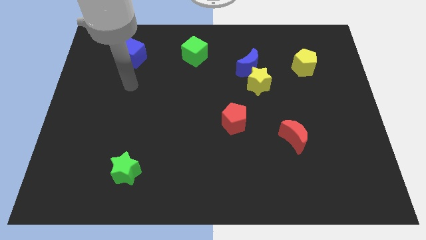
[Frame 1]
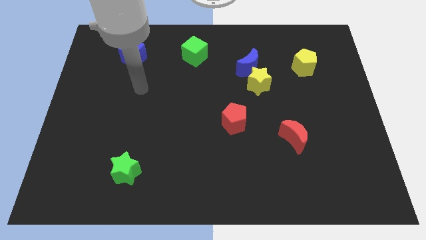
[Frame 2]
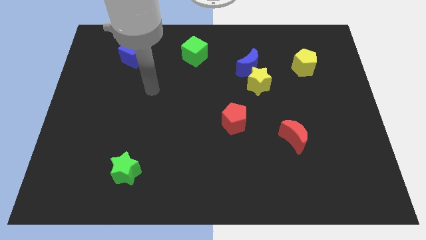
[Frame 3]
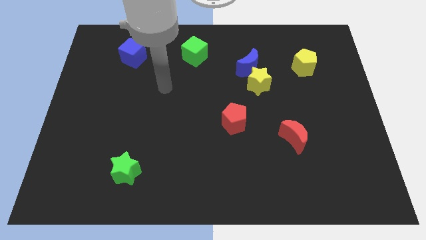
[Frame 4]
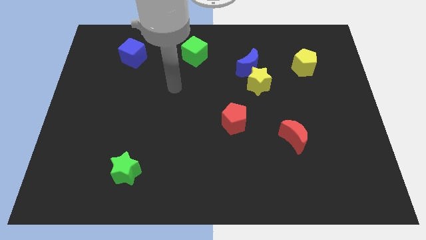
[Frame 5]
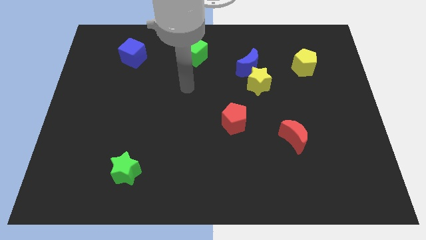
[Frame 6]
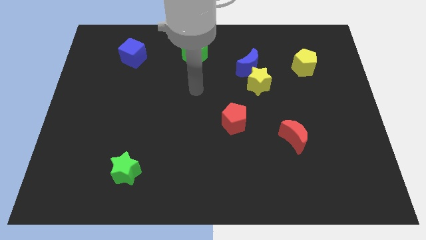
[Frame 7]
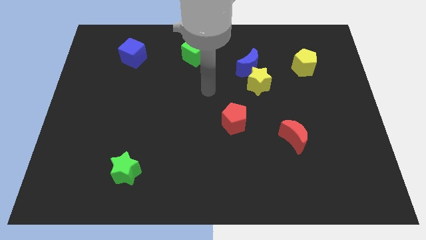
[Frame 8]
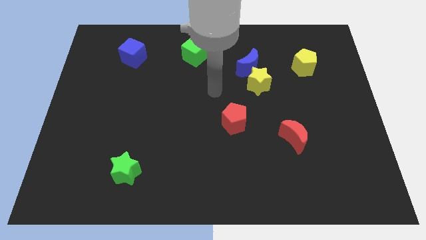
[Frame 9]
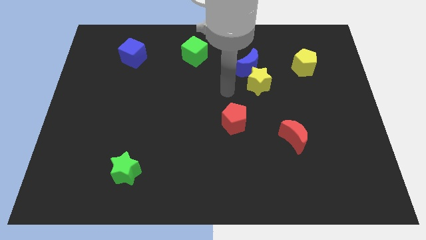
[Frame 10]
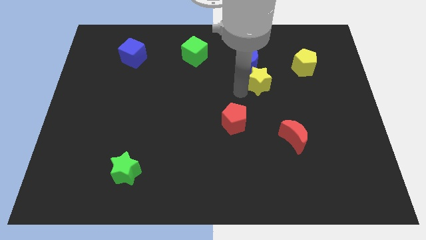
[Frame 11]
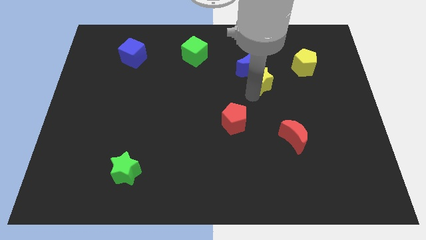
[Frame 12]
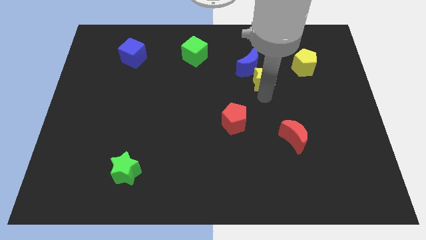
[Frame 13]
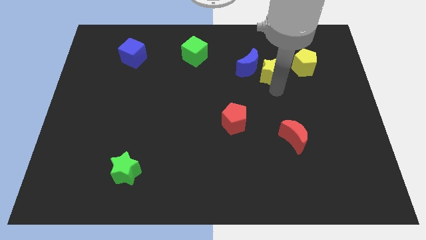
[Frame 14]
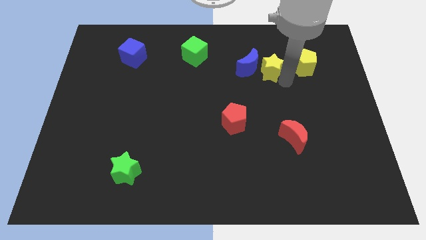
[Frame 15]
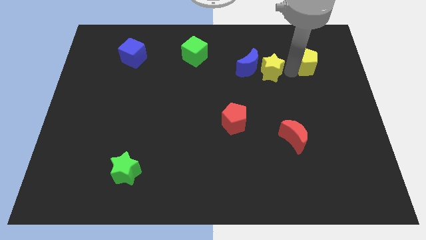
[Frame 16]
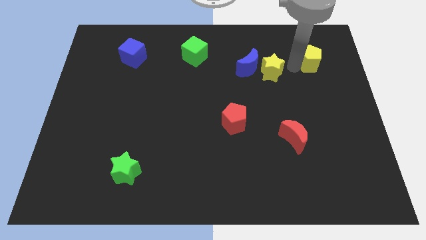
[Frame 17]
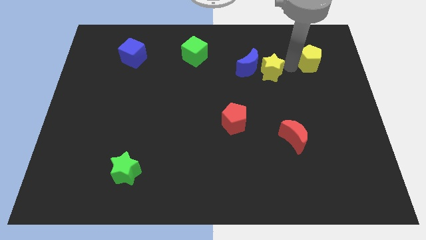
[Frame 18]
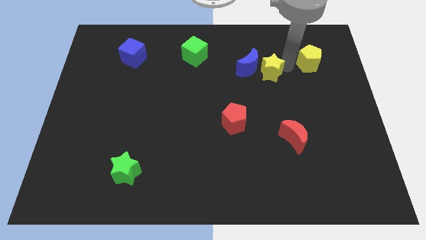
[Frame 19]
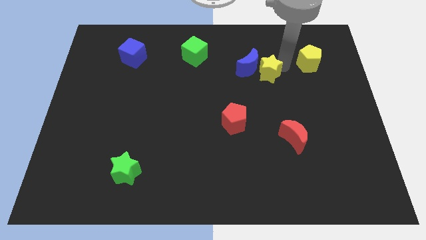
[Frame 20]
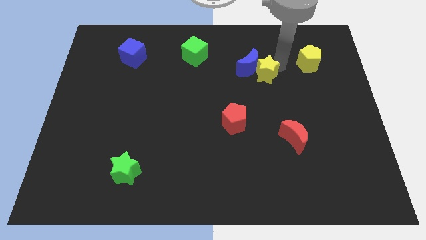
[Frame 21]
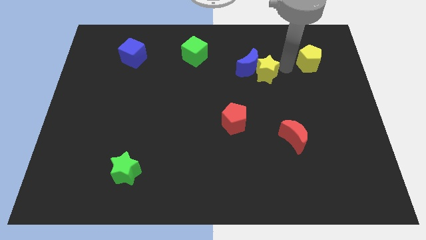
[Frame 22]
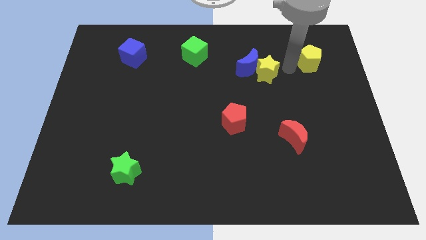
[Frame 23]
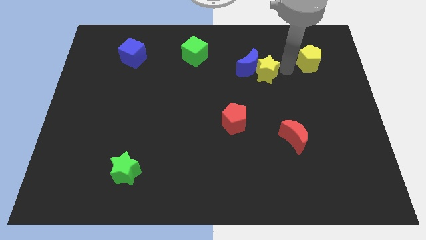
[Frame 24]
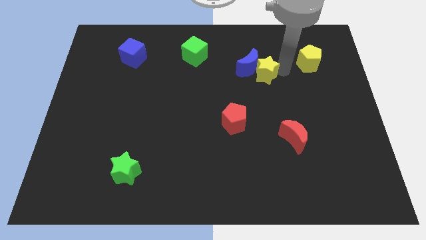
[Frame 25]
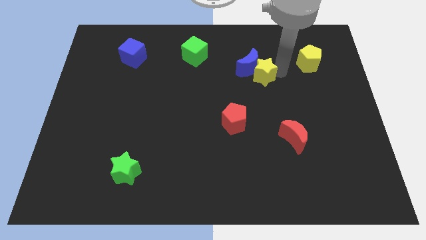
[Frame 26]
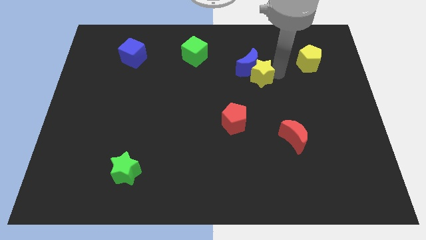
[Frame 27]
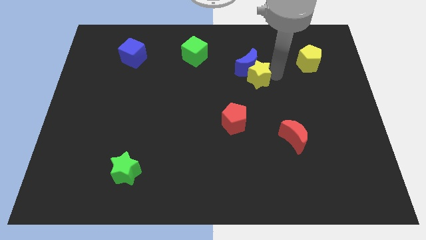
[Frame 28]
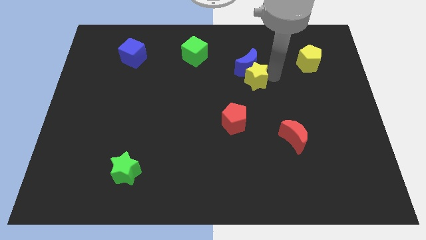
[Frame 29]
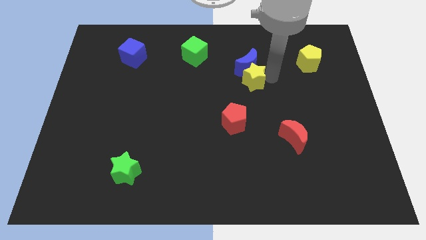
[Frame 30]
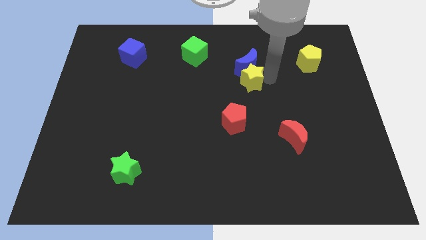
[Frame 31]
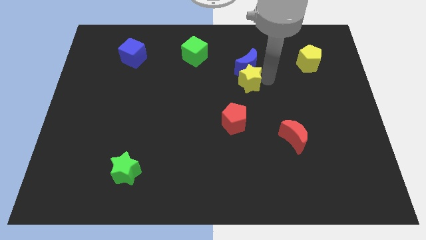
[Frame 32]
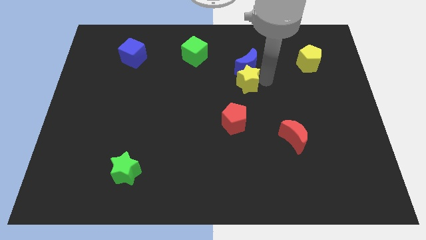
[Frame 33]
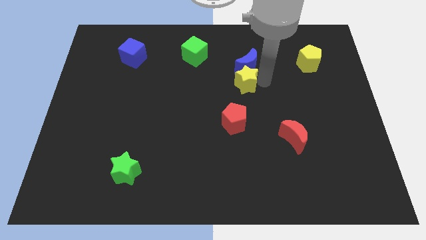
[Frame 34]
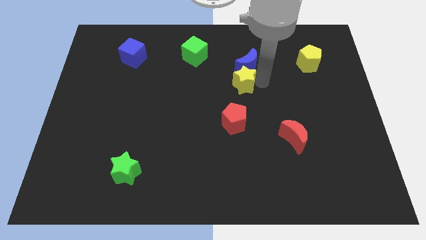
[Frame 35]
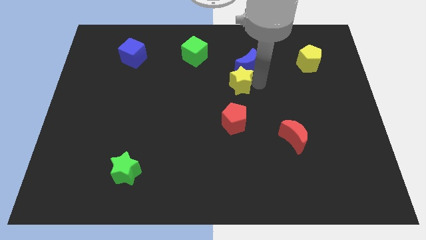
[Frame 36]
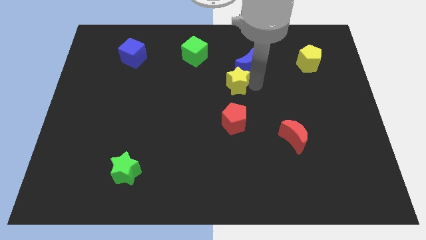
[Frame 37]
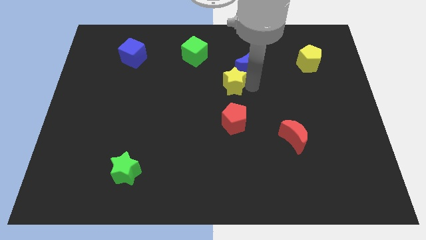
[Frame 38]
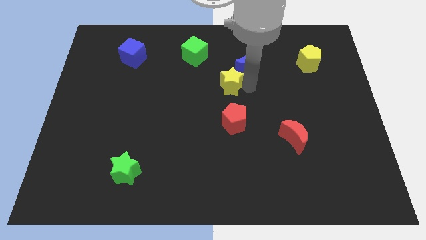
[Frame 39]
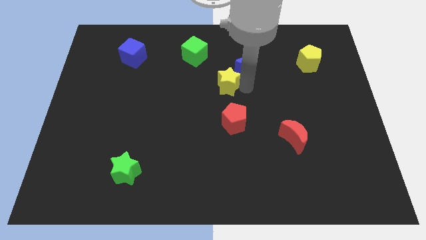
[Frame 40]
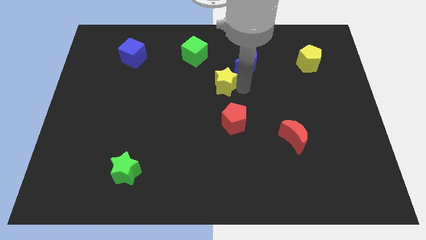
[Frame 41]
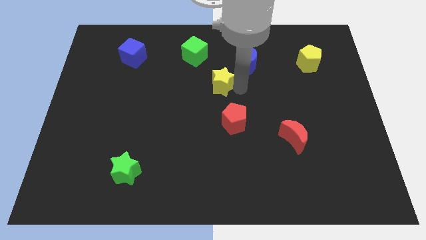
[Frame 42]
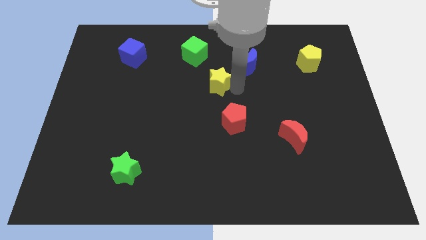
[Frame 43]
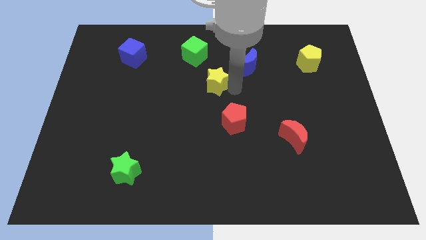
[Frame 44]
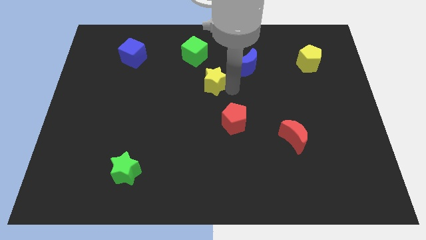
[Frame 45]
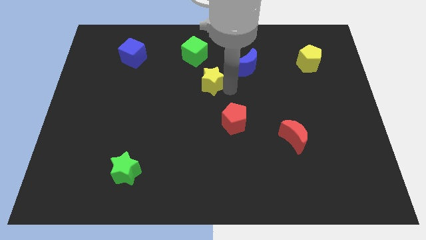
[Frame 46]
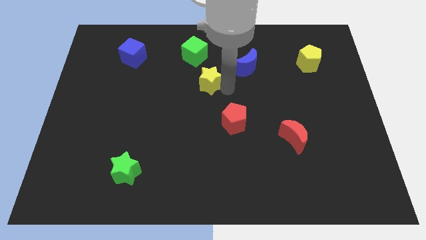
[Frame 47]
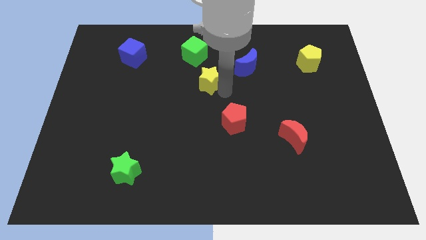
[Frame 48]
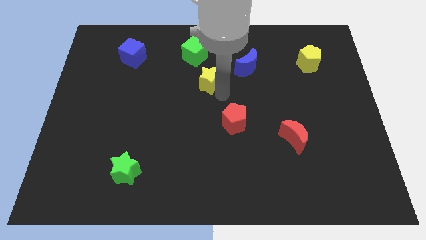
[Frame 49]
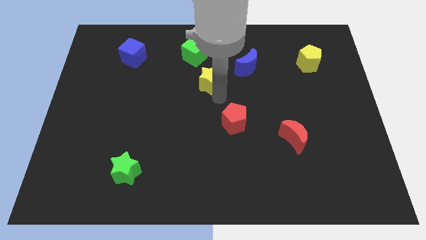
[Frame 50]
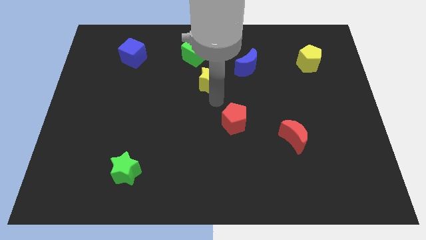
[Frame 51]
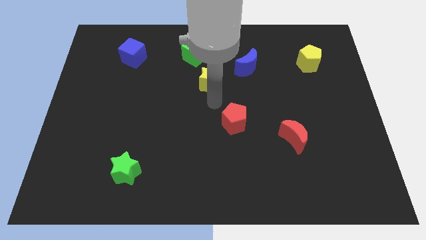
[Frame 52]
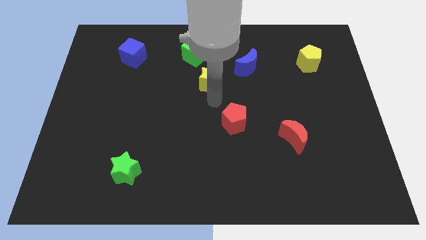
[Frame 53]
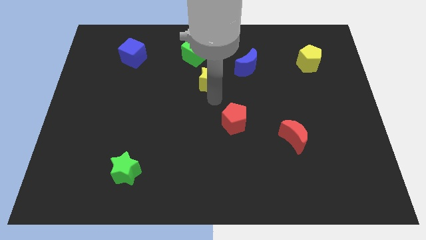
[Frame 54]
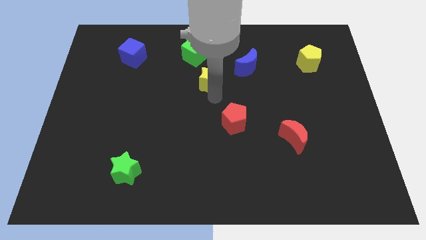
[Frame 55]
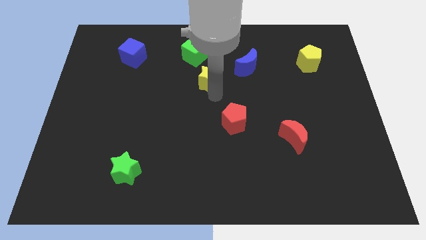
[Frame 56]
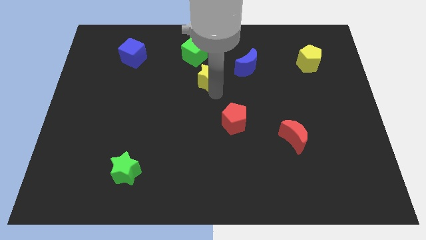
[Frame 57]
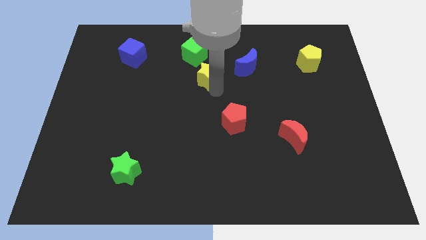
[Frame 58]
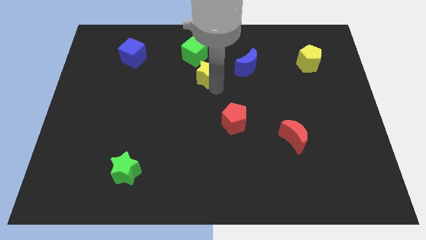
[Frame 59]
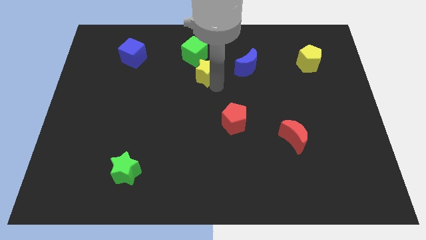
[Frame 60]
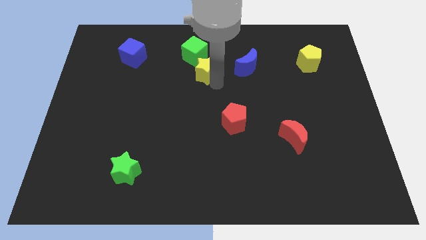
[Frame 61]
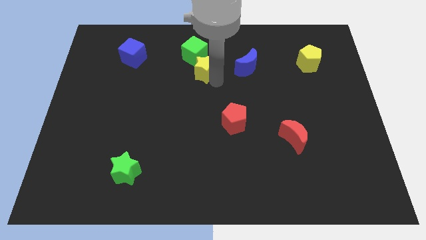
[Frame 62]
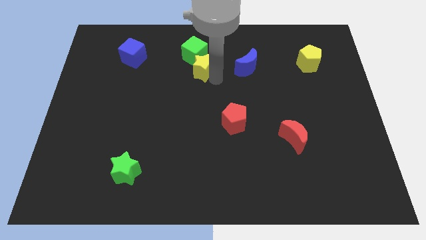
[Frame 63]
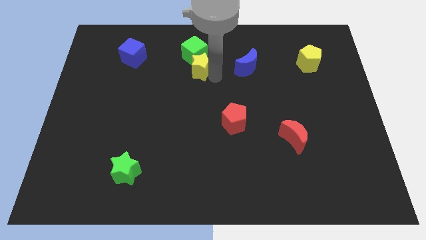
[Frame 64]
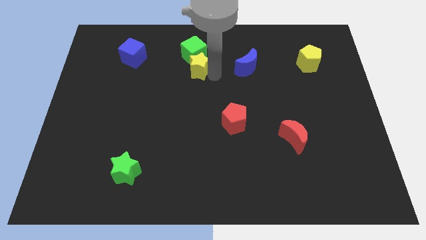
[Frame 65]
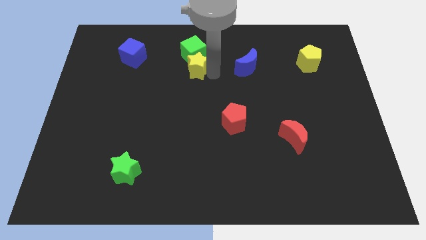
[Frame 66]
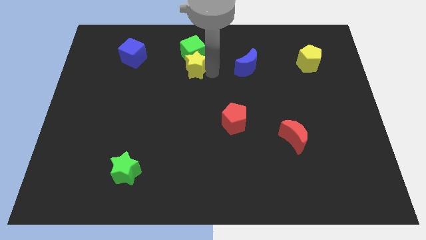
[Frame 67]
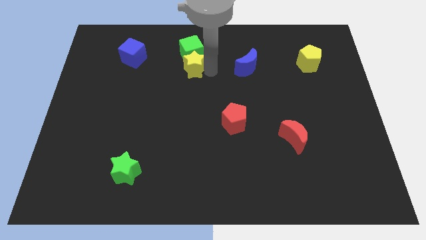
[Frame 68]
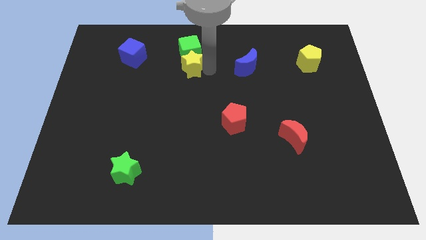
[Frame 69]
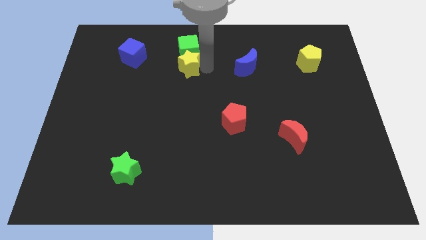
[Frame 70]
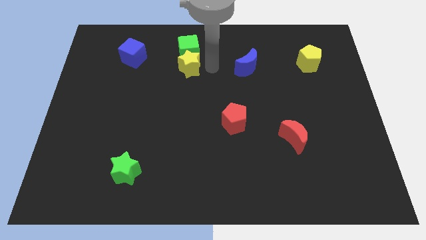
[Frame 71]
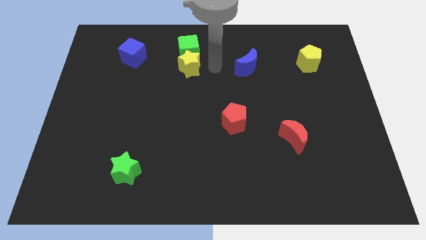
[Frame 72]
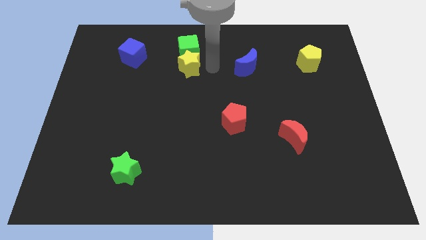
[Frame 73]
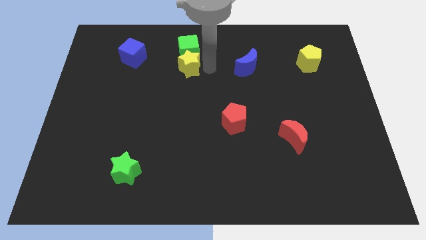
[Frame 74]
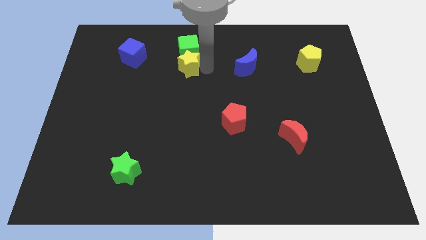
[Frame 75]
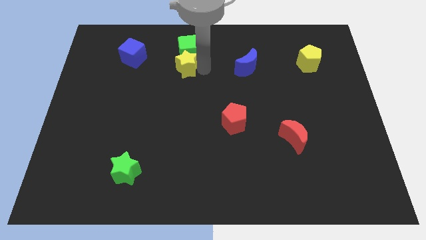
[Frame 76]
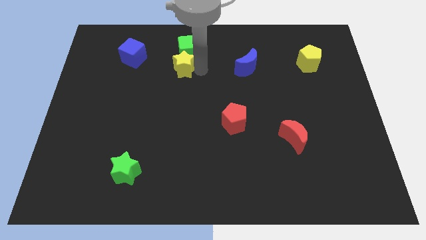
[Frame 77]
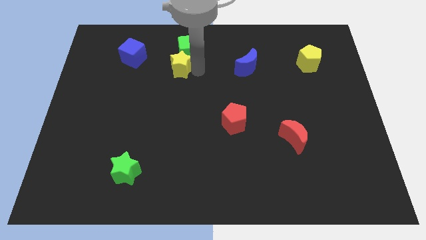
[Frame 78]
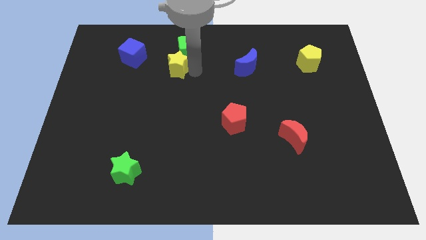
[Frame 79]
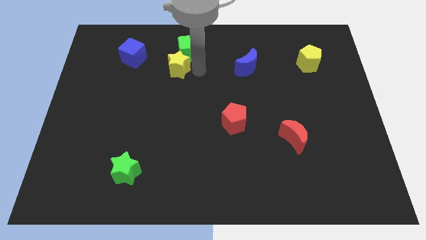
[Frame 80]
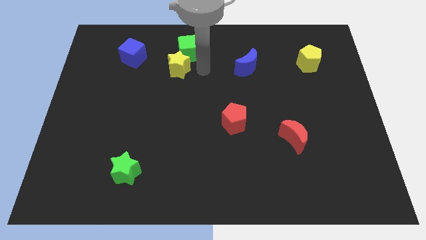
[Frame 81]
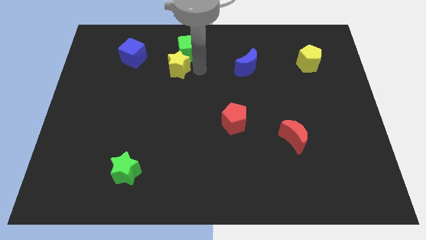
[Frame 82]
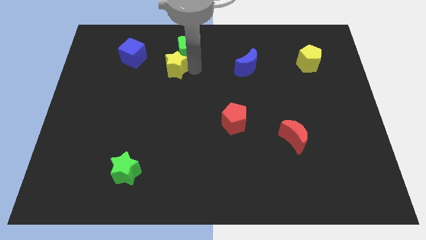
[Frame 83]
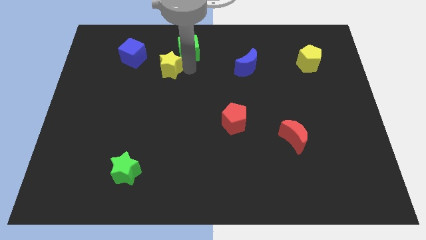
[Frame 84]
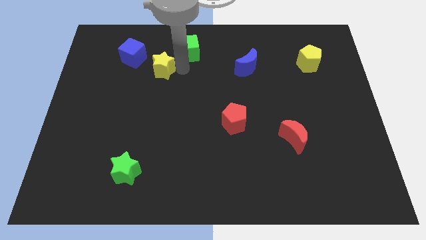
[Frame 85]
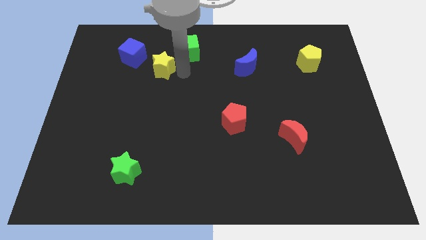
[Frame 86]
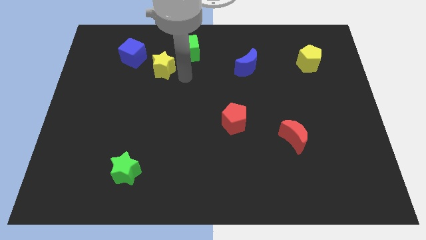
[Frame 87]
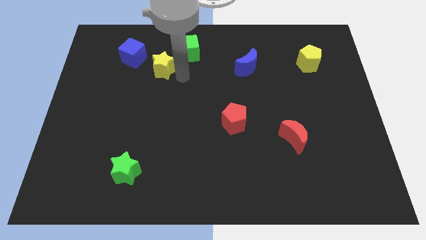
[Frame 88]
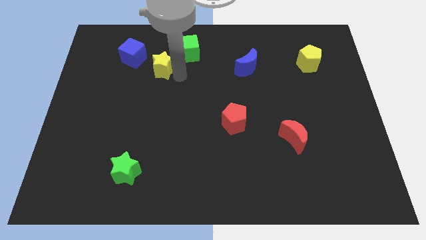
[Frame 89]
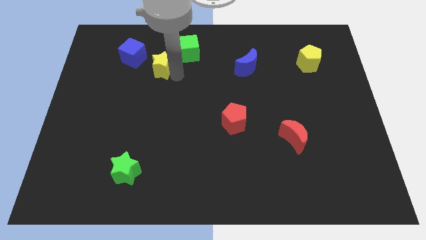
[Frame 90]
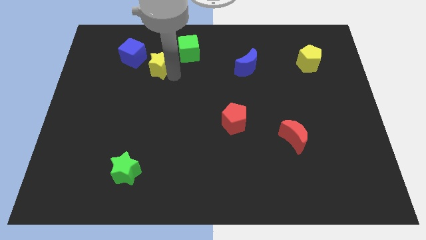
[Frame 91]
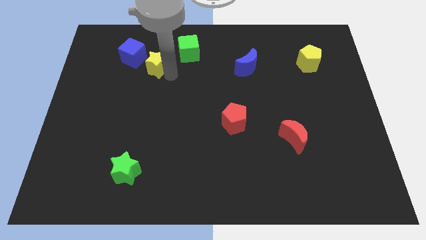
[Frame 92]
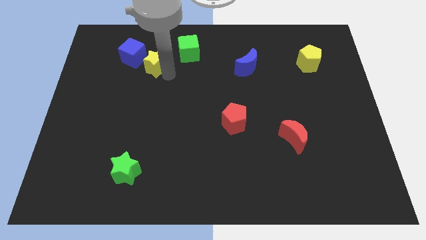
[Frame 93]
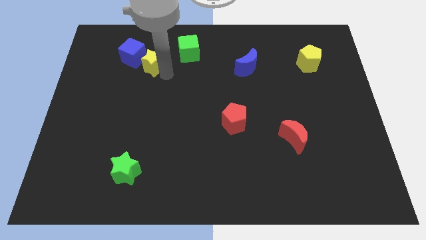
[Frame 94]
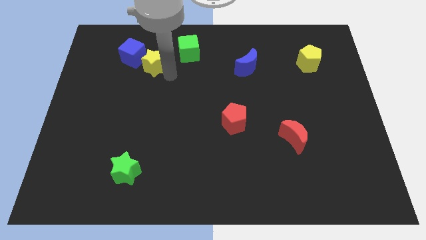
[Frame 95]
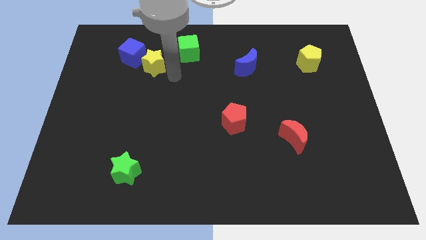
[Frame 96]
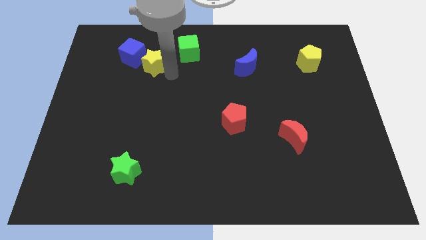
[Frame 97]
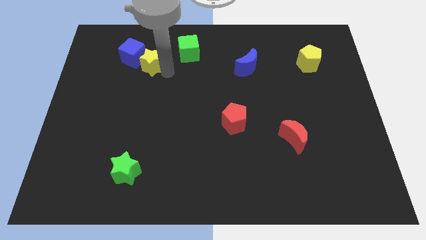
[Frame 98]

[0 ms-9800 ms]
slide the yellow star next to the blue cube
